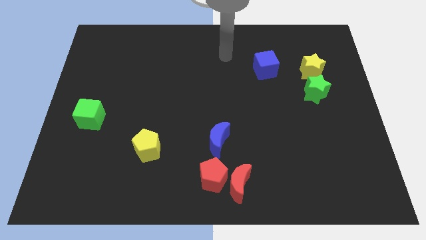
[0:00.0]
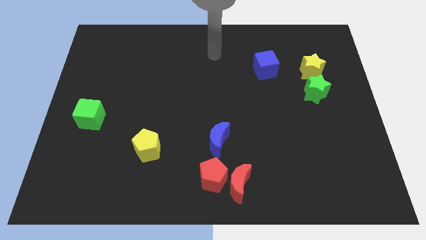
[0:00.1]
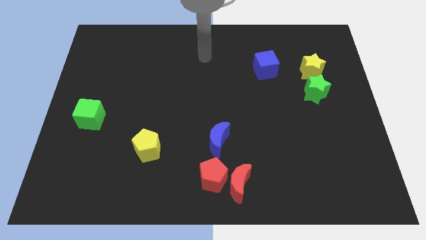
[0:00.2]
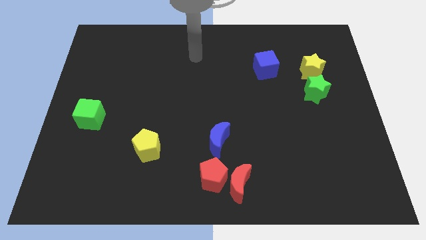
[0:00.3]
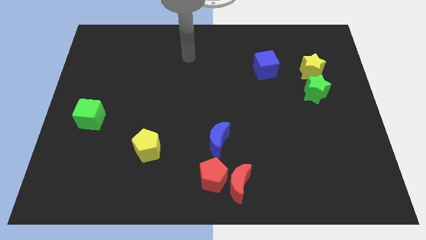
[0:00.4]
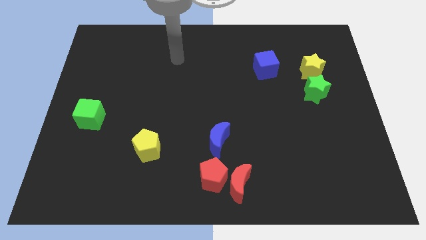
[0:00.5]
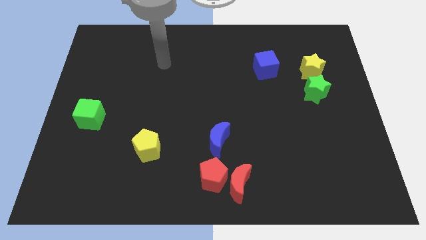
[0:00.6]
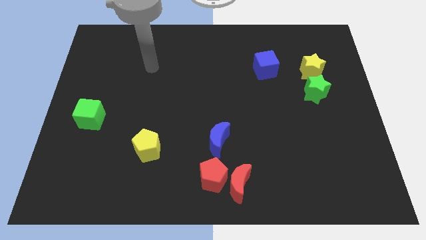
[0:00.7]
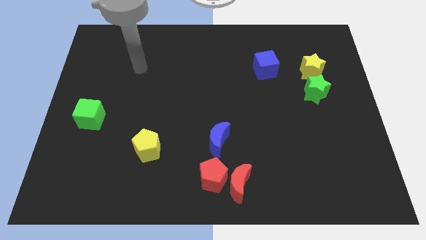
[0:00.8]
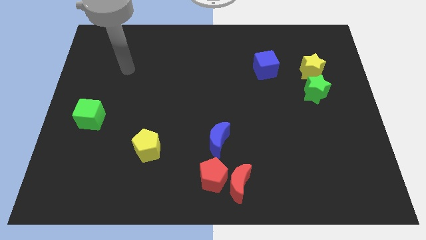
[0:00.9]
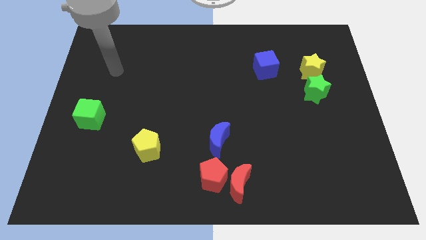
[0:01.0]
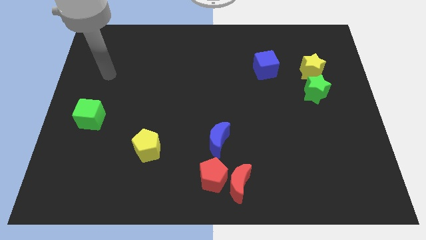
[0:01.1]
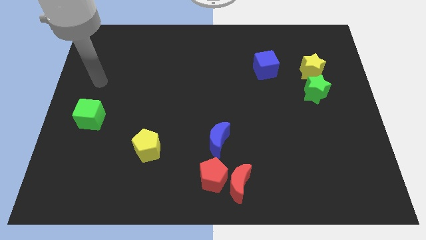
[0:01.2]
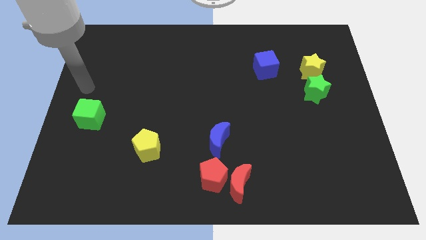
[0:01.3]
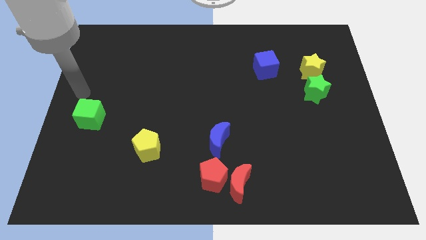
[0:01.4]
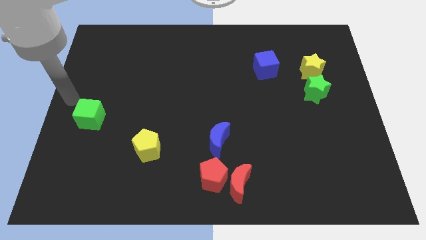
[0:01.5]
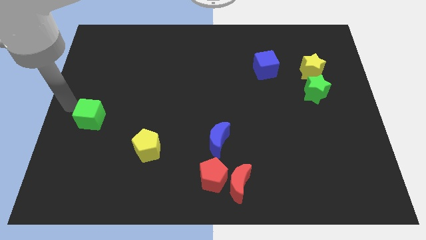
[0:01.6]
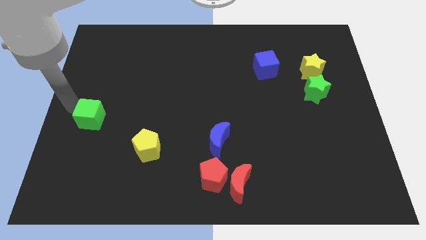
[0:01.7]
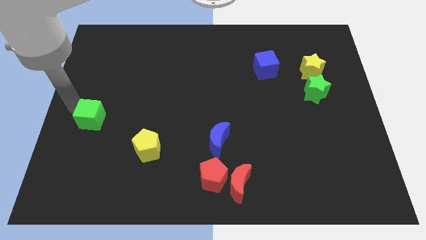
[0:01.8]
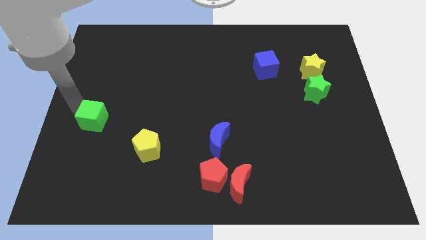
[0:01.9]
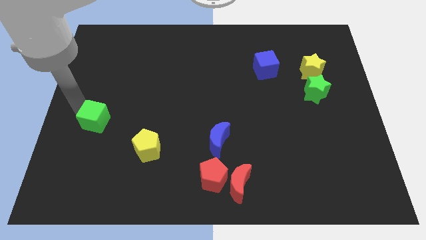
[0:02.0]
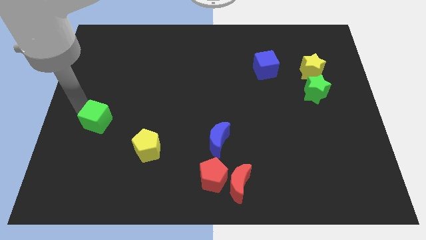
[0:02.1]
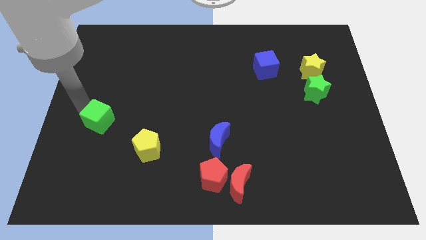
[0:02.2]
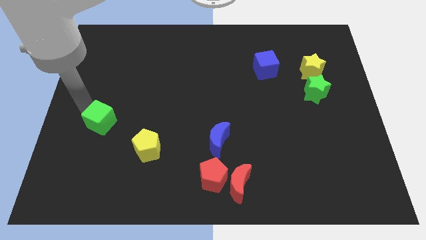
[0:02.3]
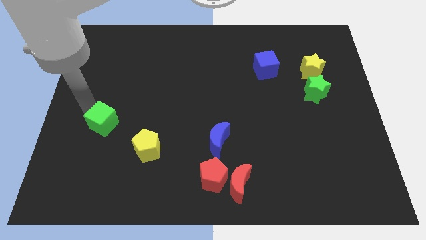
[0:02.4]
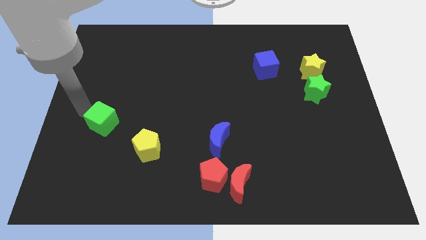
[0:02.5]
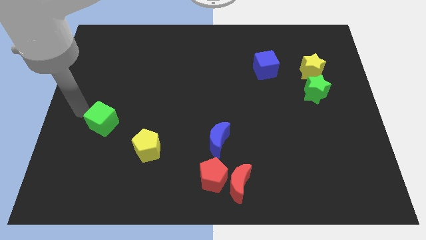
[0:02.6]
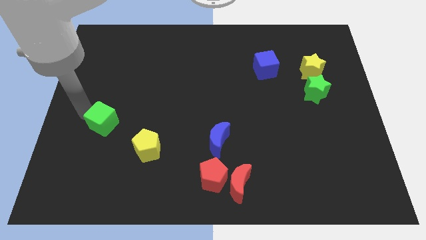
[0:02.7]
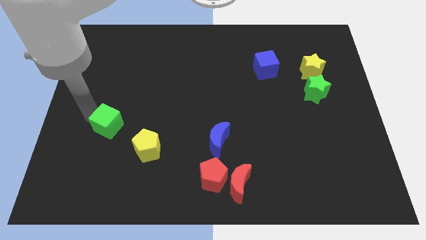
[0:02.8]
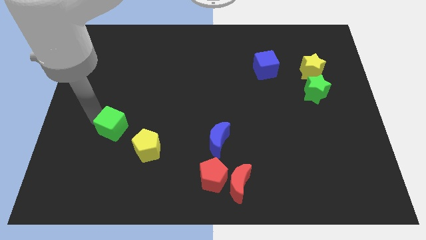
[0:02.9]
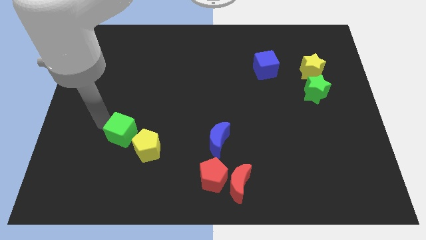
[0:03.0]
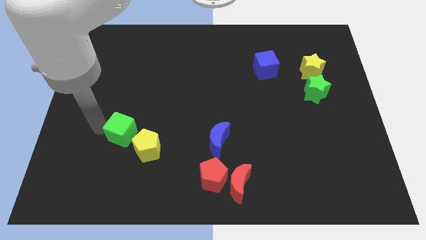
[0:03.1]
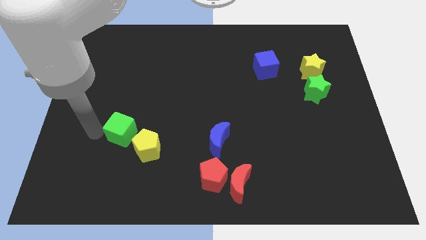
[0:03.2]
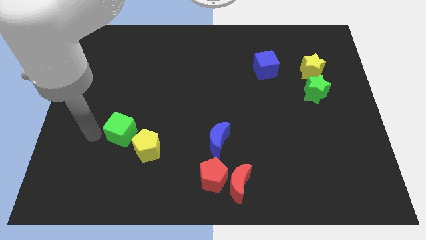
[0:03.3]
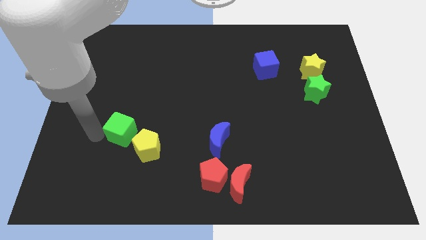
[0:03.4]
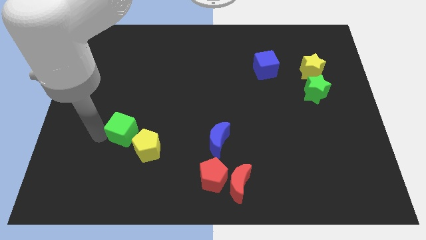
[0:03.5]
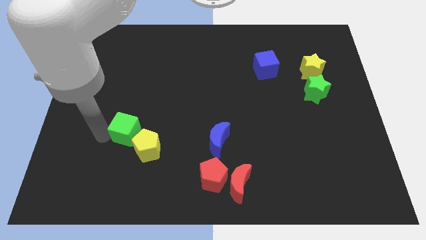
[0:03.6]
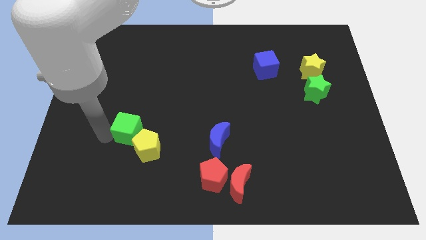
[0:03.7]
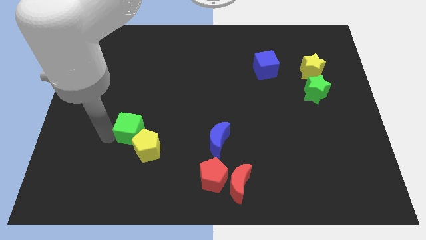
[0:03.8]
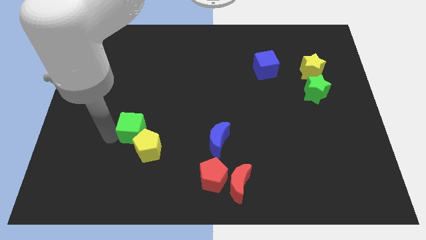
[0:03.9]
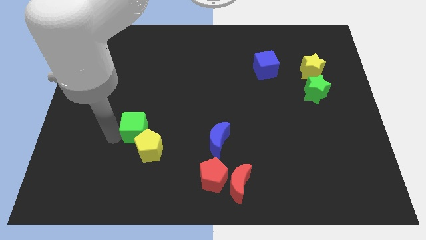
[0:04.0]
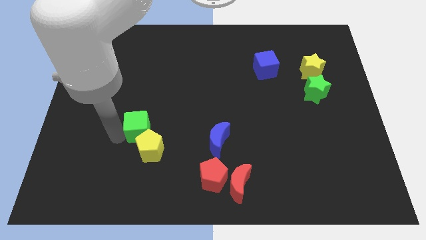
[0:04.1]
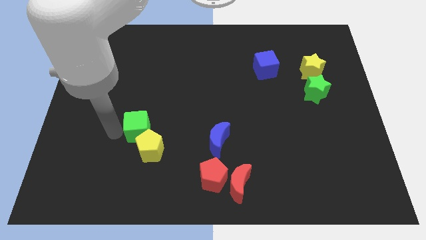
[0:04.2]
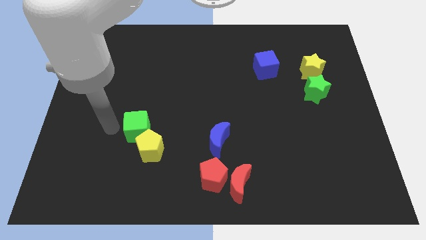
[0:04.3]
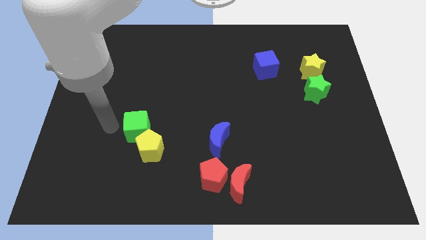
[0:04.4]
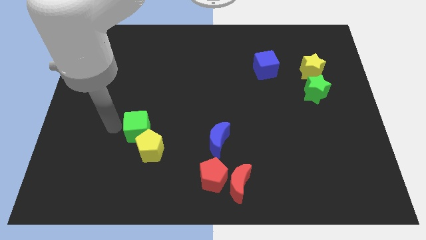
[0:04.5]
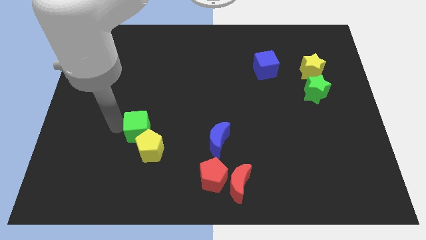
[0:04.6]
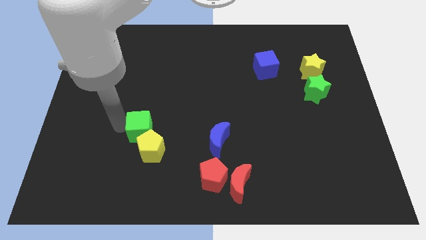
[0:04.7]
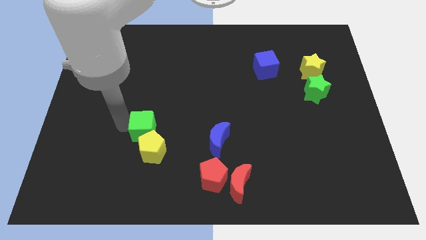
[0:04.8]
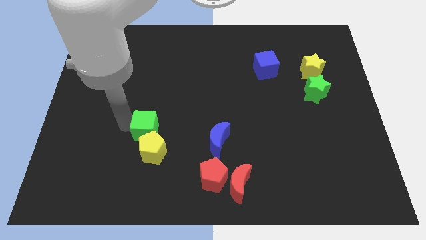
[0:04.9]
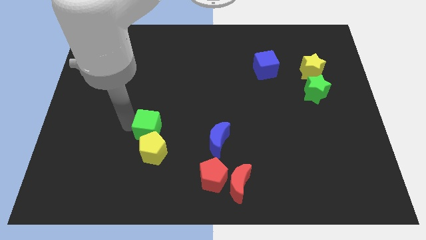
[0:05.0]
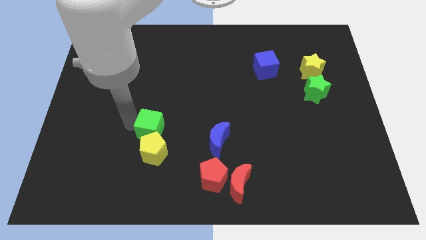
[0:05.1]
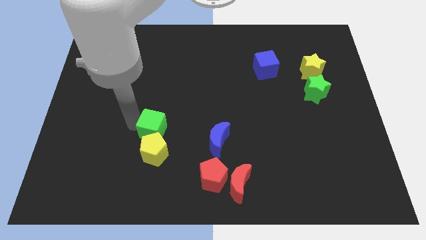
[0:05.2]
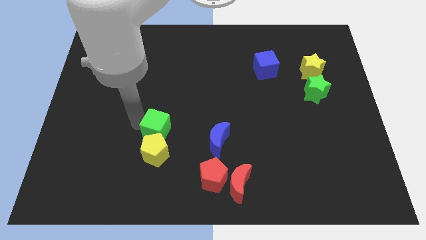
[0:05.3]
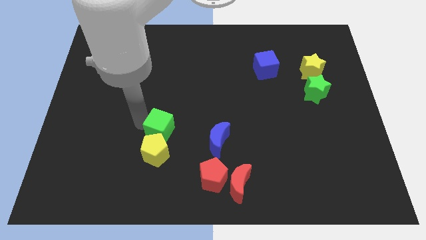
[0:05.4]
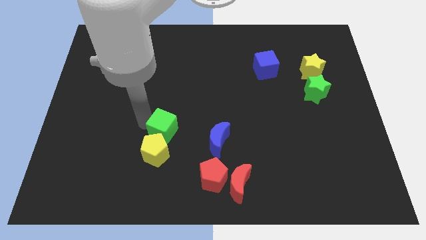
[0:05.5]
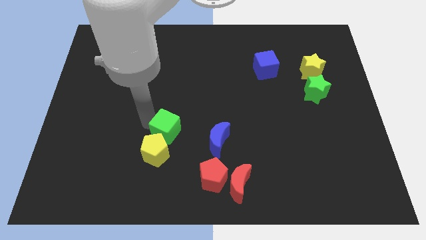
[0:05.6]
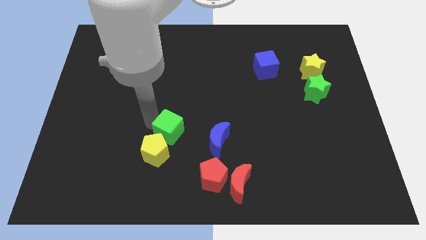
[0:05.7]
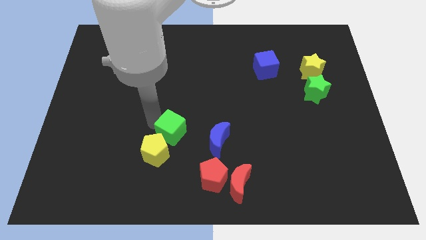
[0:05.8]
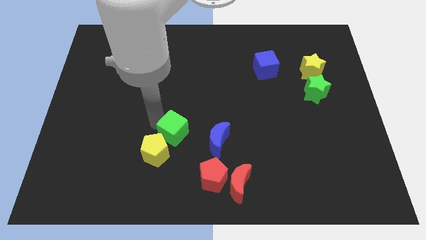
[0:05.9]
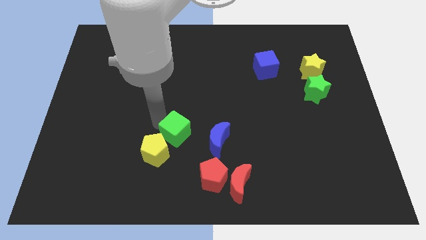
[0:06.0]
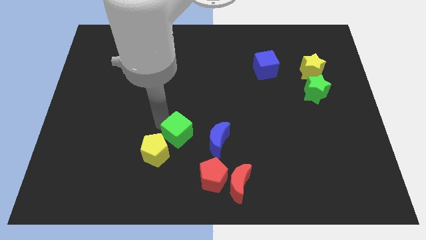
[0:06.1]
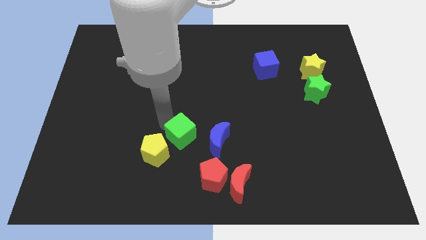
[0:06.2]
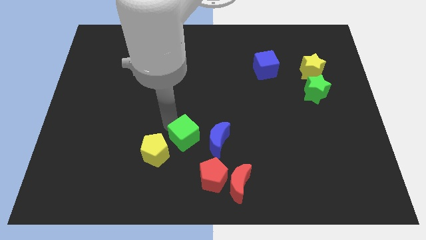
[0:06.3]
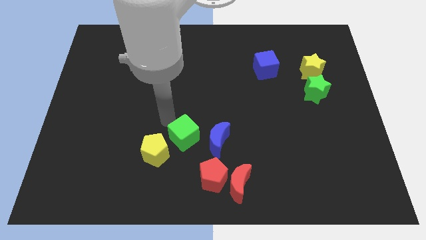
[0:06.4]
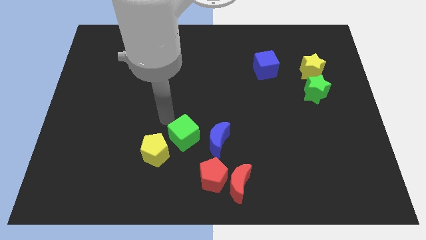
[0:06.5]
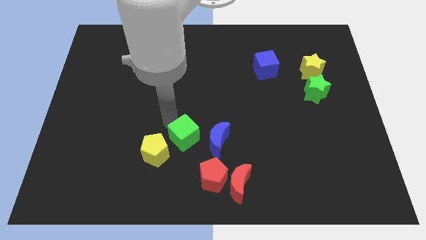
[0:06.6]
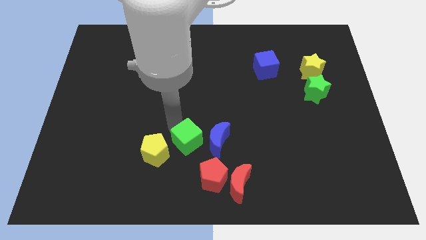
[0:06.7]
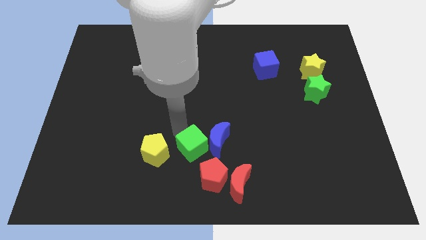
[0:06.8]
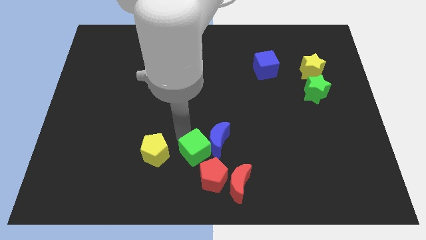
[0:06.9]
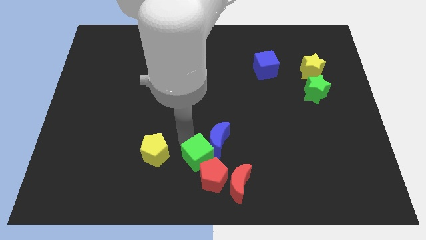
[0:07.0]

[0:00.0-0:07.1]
put the green cube close to the red pentagon
